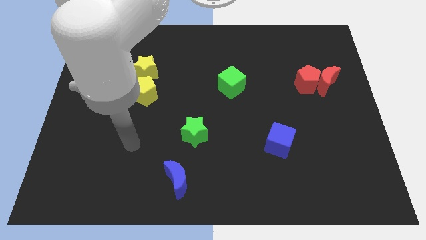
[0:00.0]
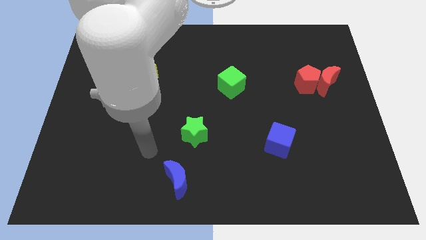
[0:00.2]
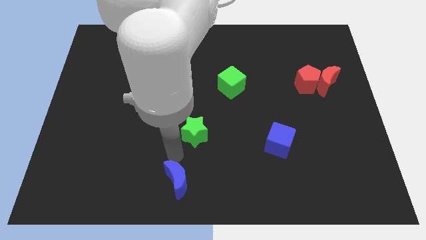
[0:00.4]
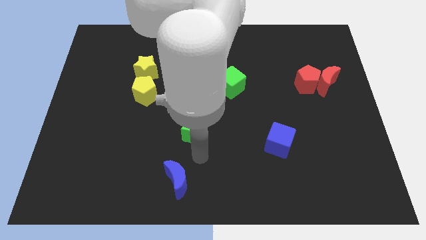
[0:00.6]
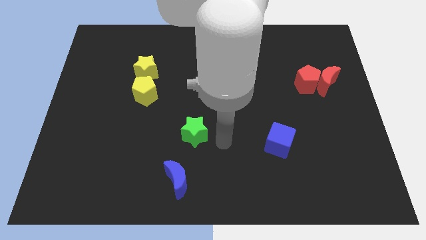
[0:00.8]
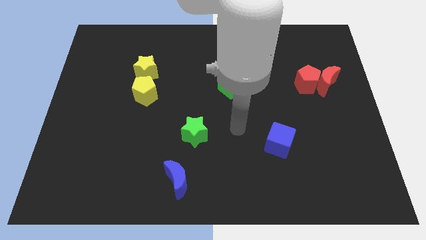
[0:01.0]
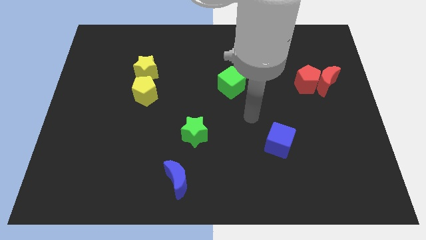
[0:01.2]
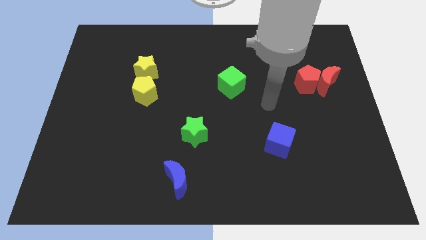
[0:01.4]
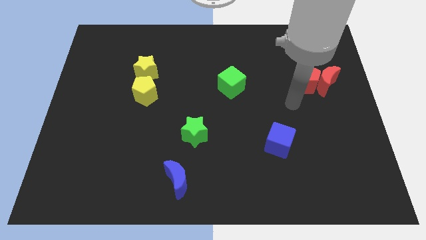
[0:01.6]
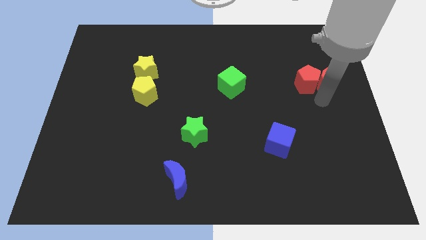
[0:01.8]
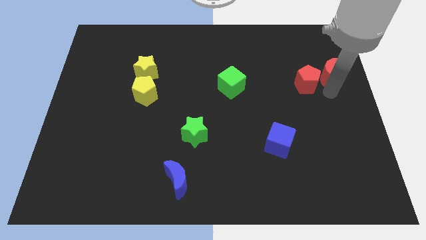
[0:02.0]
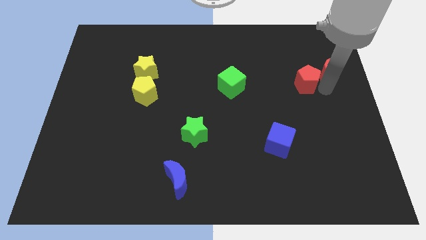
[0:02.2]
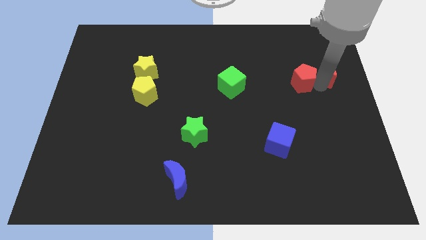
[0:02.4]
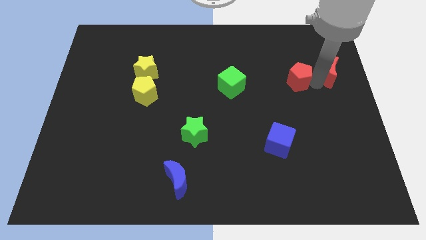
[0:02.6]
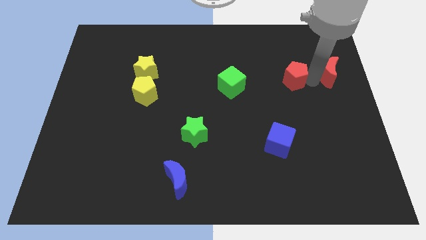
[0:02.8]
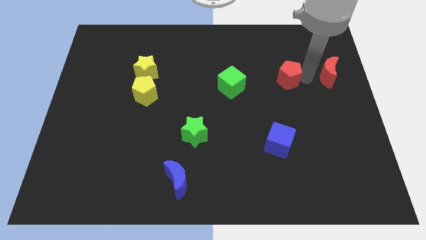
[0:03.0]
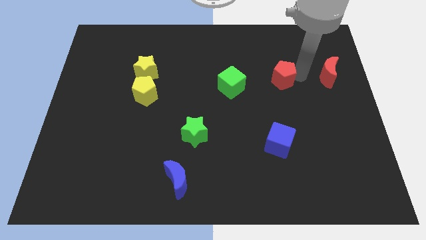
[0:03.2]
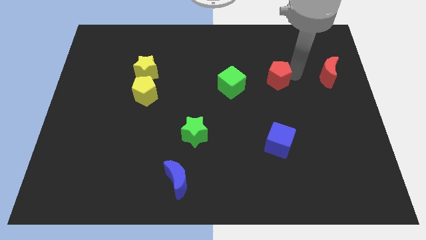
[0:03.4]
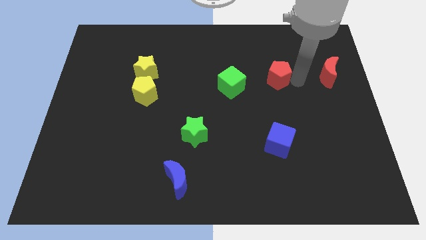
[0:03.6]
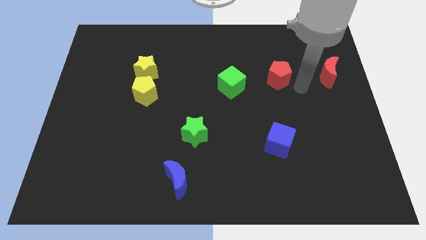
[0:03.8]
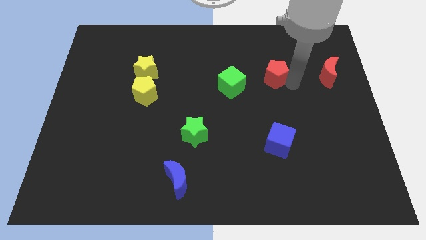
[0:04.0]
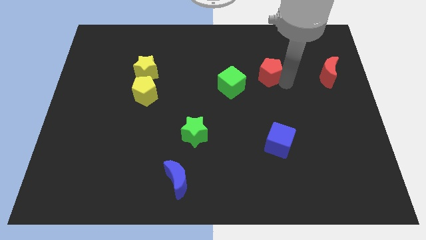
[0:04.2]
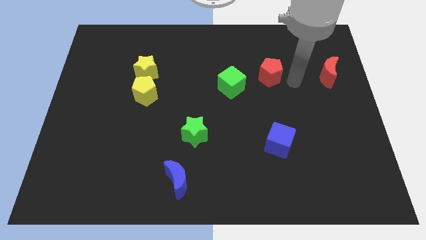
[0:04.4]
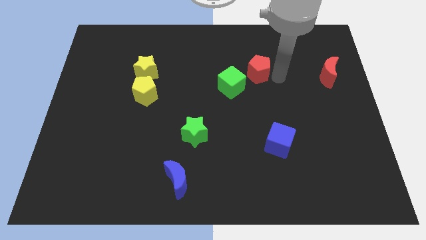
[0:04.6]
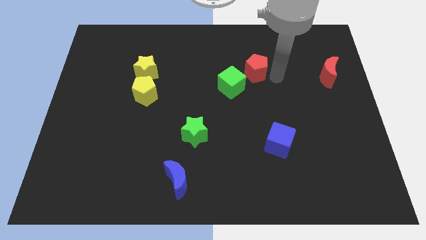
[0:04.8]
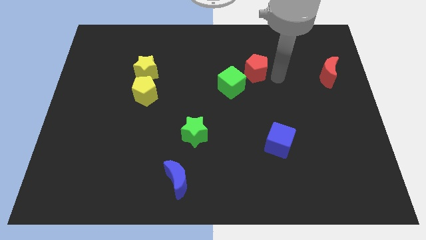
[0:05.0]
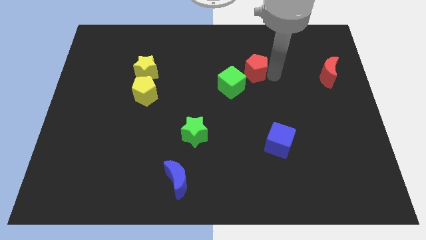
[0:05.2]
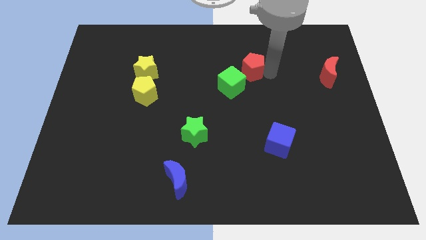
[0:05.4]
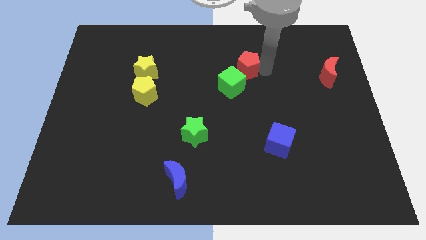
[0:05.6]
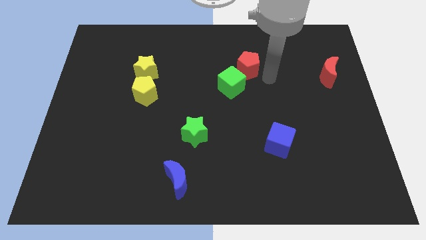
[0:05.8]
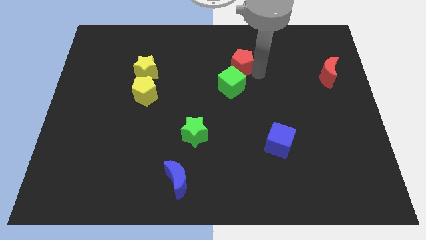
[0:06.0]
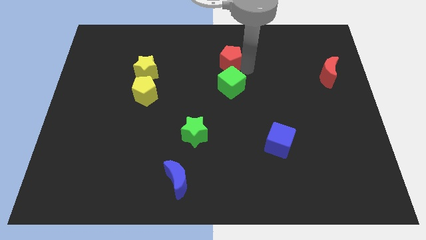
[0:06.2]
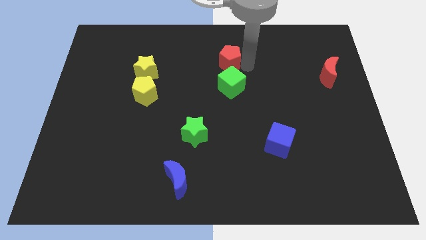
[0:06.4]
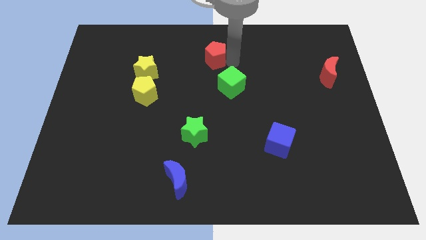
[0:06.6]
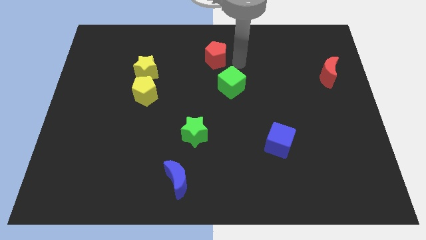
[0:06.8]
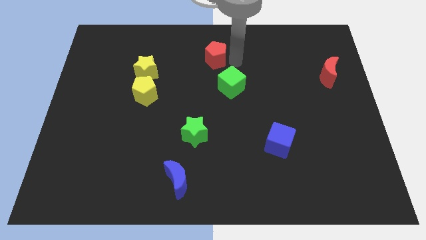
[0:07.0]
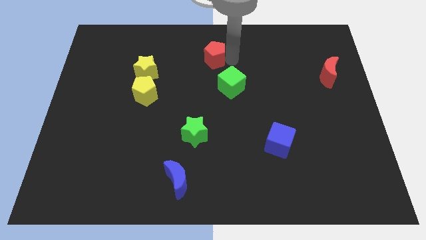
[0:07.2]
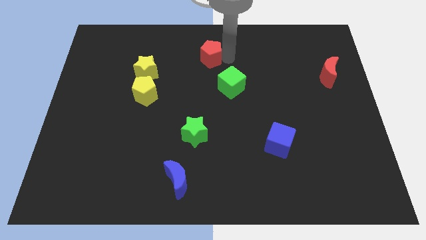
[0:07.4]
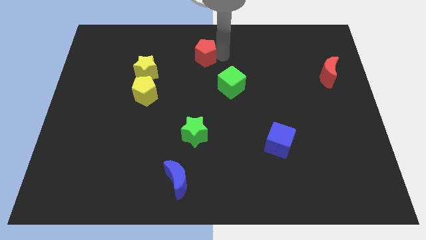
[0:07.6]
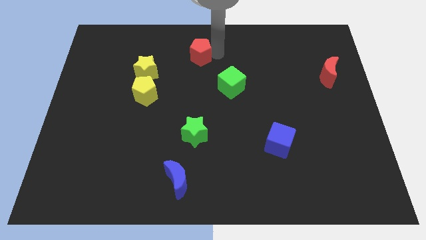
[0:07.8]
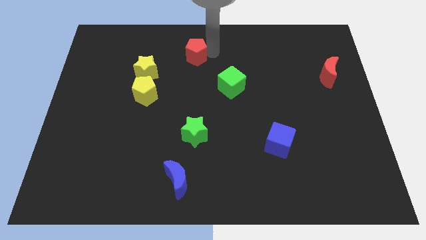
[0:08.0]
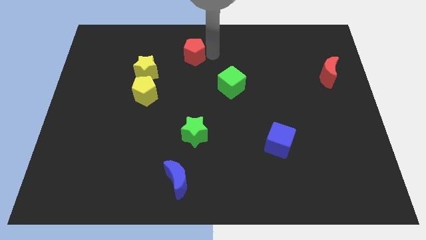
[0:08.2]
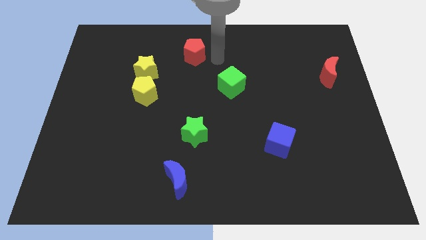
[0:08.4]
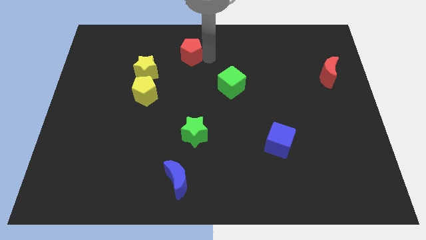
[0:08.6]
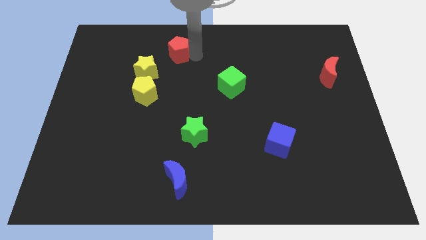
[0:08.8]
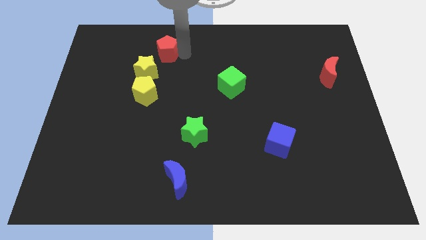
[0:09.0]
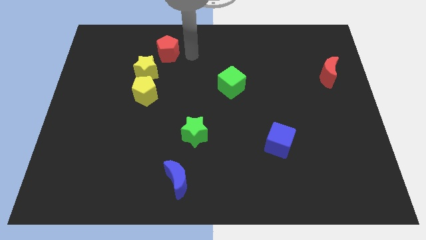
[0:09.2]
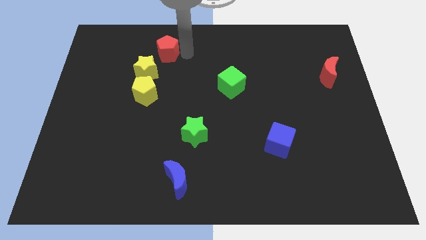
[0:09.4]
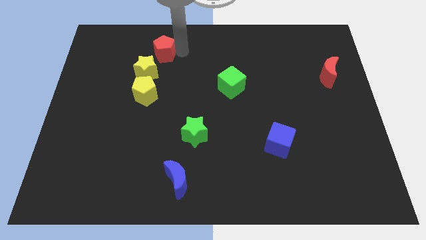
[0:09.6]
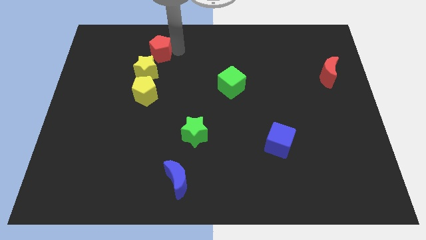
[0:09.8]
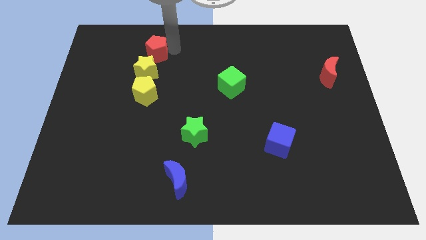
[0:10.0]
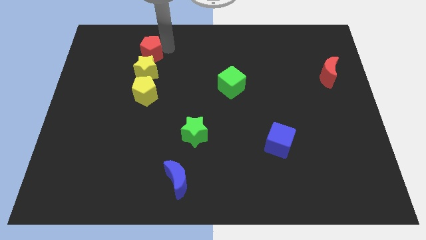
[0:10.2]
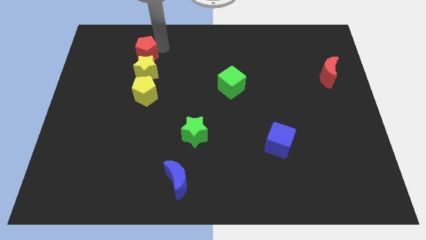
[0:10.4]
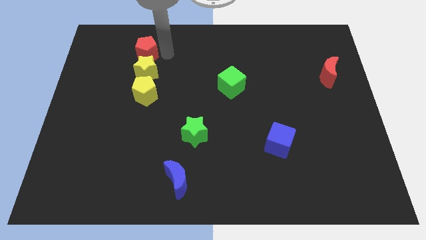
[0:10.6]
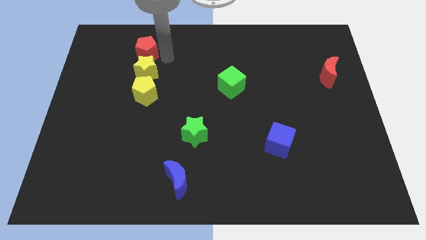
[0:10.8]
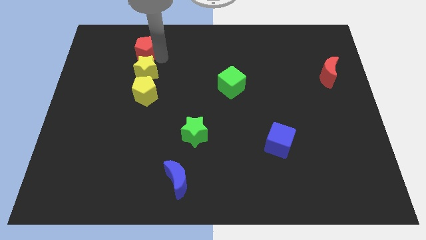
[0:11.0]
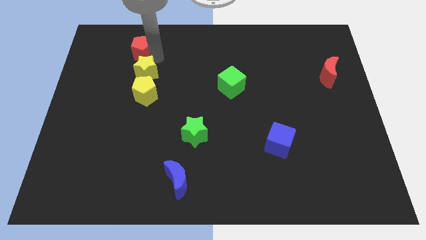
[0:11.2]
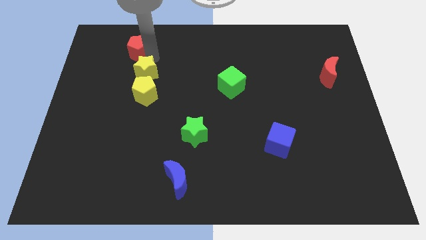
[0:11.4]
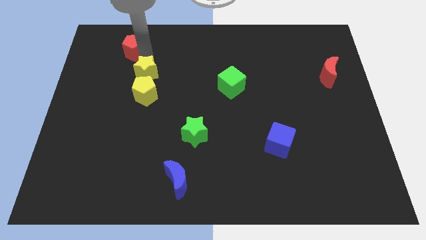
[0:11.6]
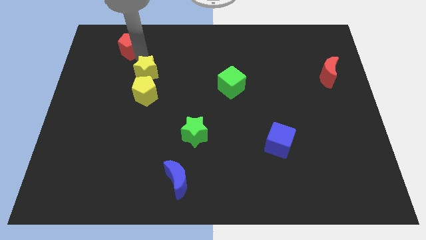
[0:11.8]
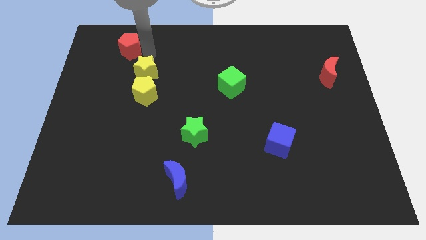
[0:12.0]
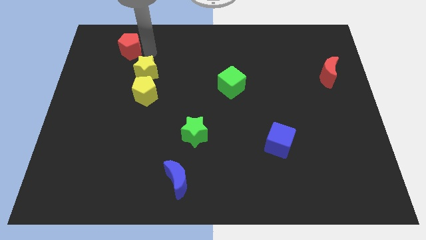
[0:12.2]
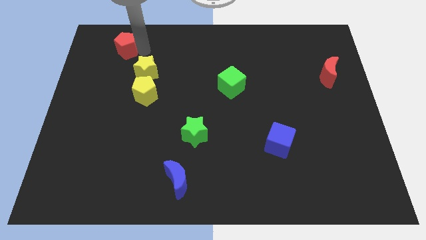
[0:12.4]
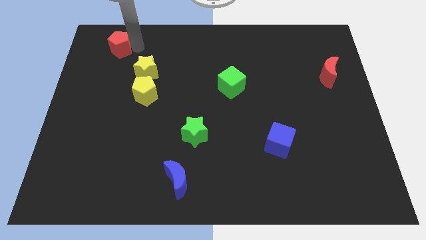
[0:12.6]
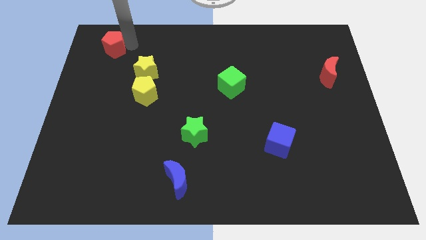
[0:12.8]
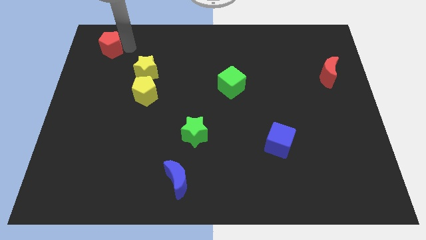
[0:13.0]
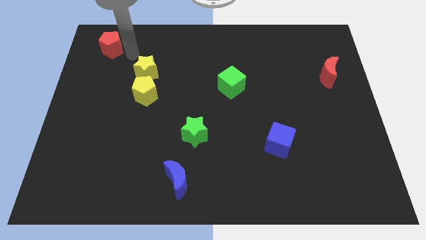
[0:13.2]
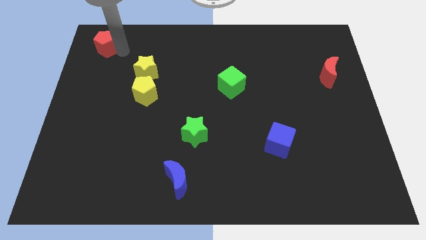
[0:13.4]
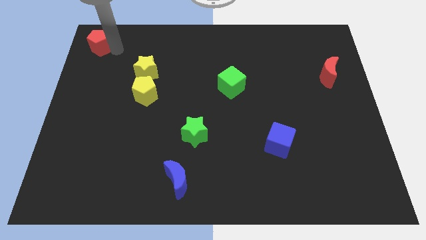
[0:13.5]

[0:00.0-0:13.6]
move the red pentagon to the upper left corner
